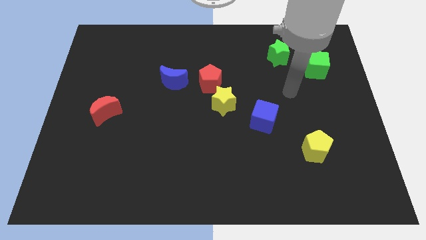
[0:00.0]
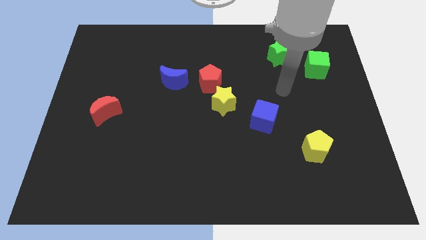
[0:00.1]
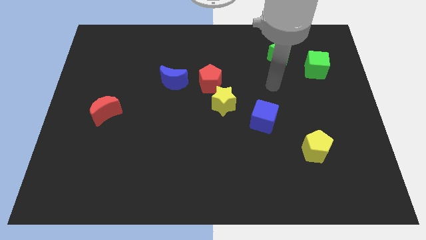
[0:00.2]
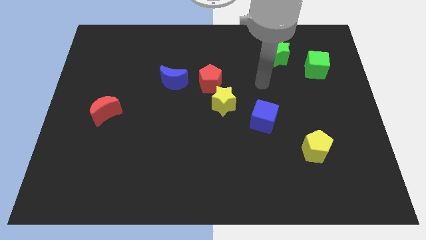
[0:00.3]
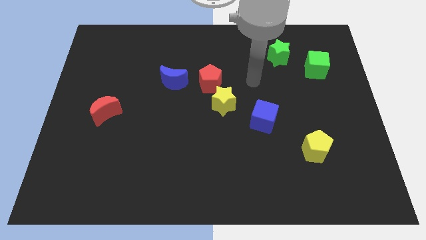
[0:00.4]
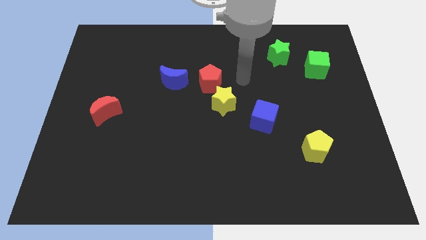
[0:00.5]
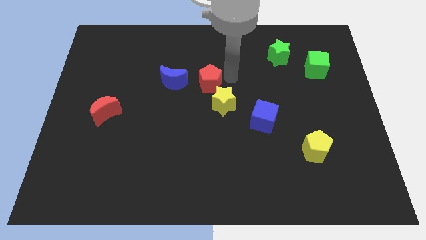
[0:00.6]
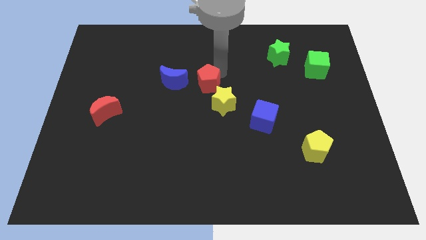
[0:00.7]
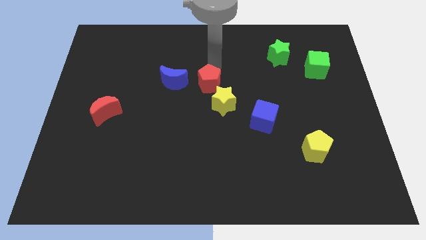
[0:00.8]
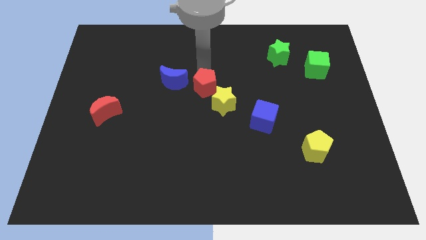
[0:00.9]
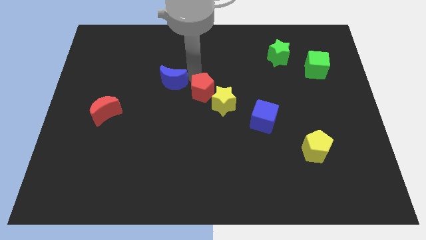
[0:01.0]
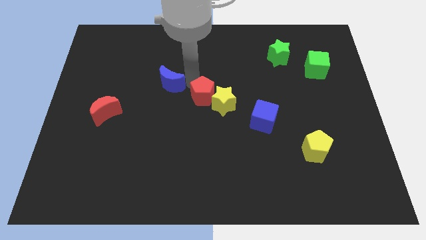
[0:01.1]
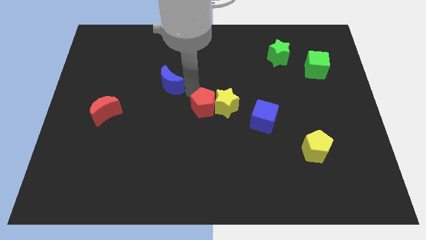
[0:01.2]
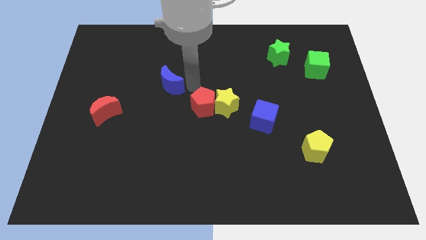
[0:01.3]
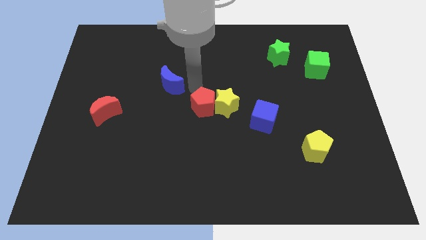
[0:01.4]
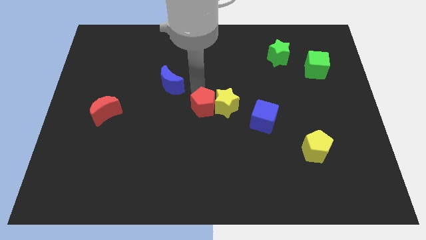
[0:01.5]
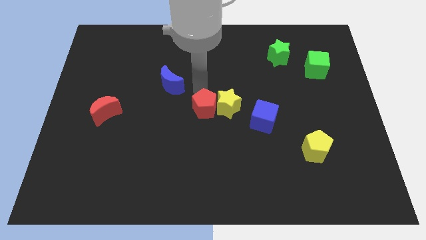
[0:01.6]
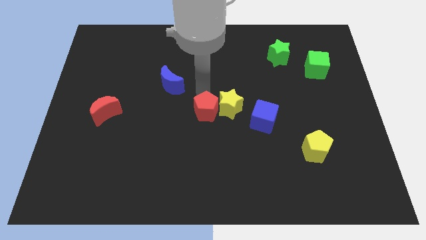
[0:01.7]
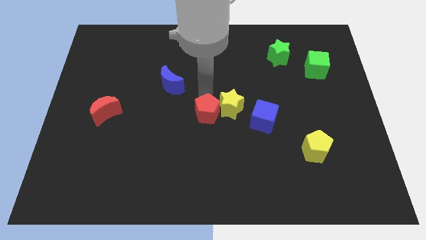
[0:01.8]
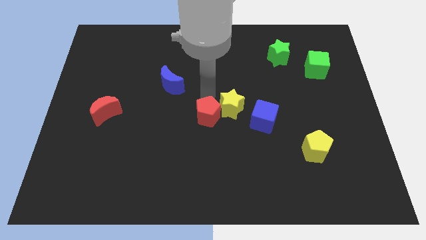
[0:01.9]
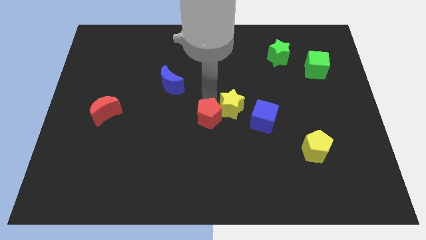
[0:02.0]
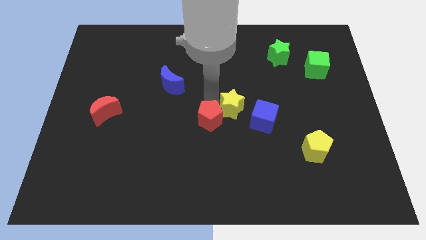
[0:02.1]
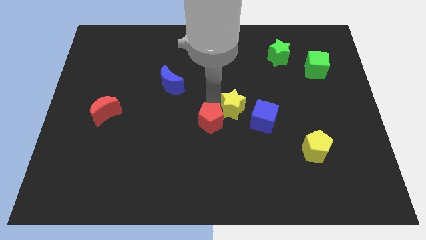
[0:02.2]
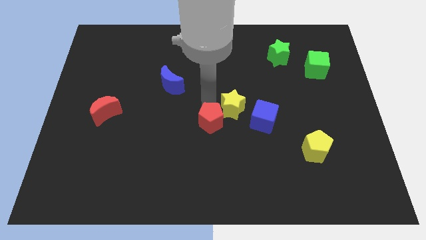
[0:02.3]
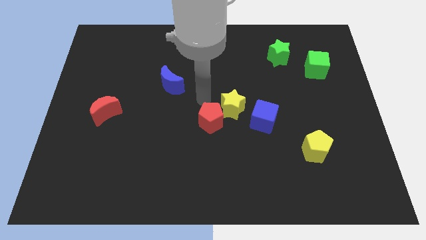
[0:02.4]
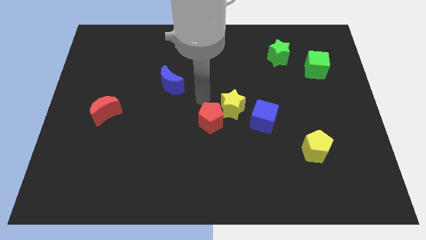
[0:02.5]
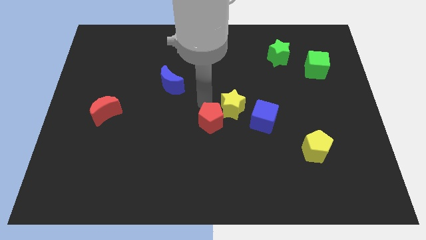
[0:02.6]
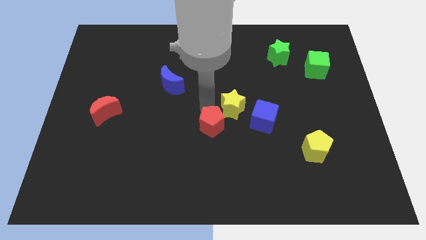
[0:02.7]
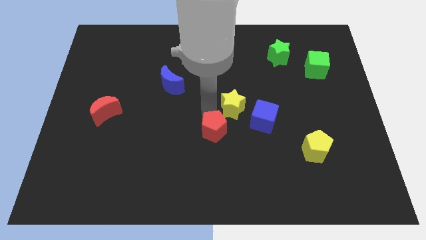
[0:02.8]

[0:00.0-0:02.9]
move the red pentagon away from the yellow star and blue moon

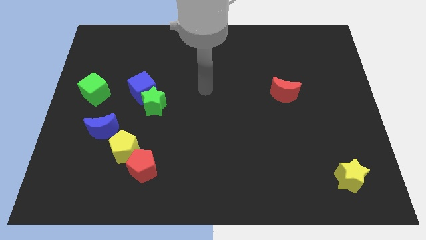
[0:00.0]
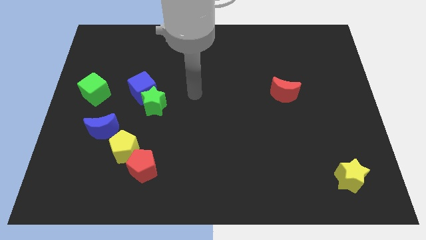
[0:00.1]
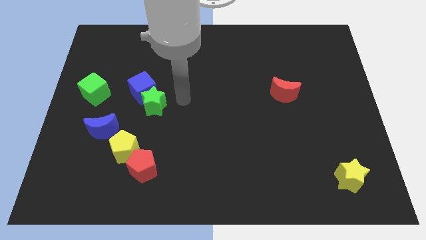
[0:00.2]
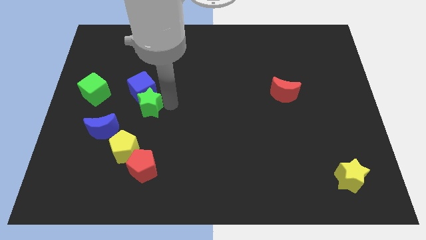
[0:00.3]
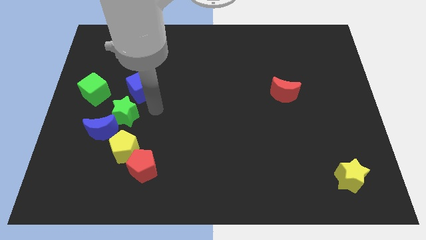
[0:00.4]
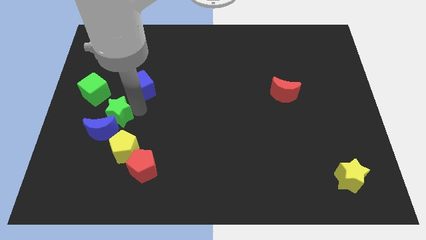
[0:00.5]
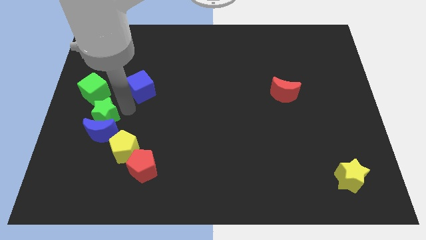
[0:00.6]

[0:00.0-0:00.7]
pull the blue cube apart from the green star

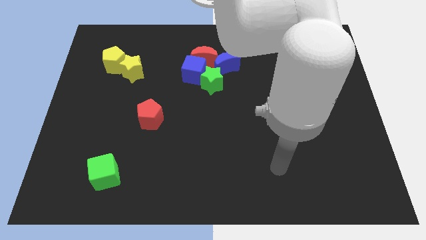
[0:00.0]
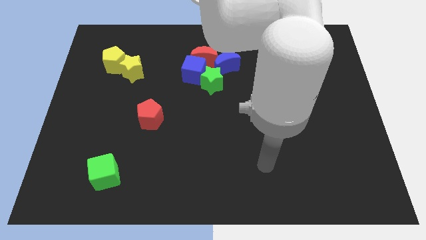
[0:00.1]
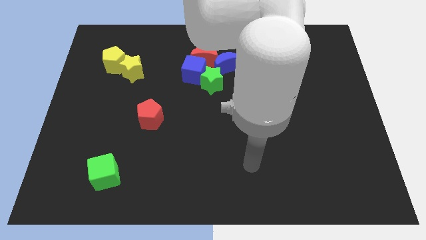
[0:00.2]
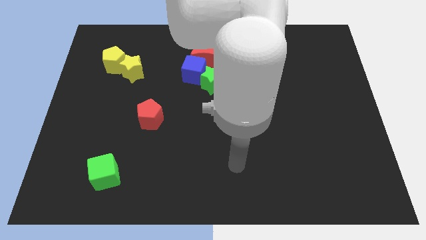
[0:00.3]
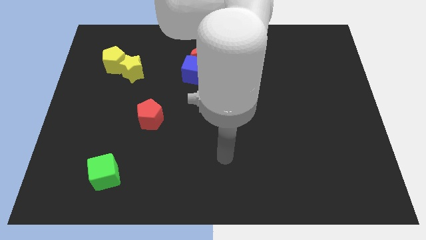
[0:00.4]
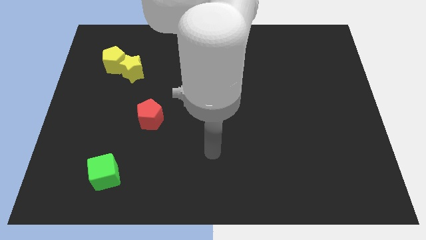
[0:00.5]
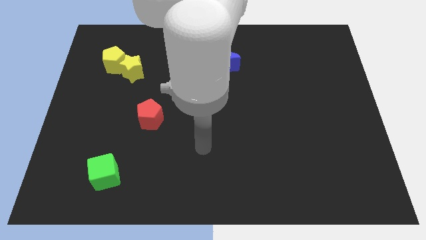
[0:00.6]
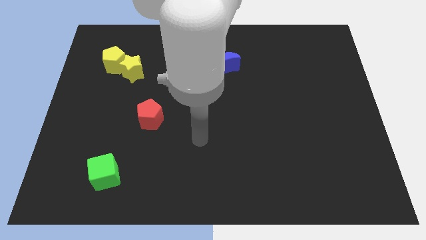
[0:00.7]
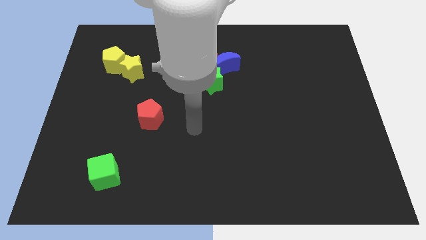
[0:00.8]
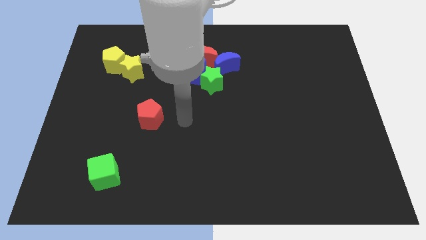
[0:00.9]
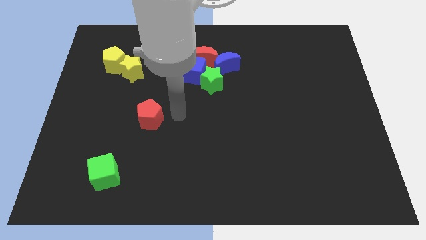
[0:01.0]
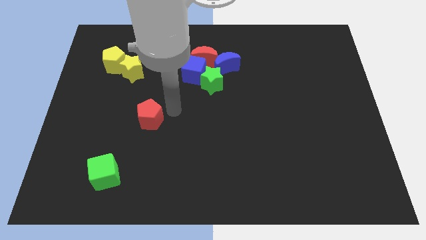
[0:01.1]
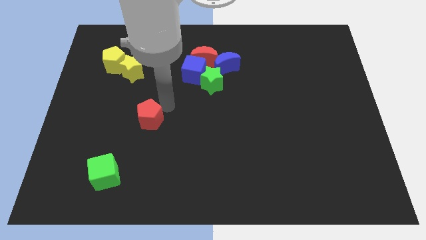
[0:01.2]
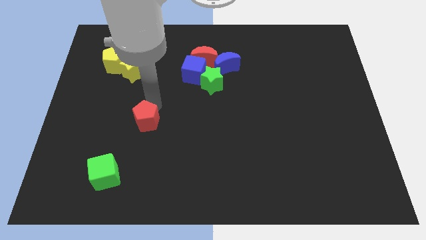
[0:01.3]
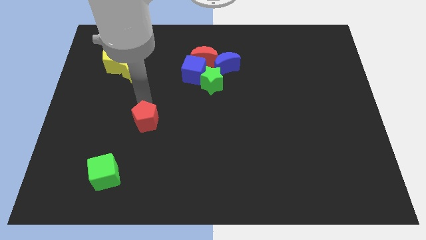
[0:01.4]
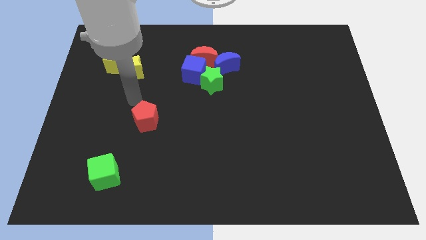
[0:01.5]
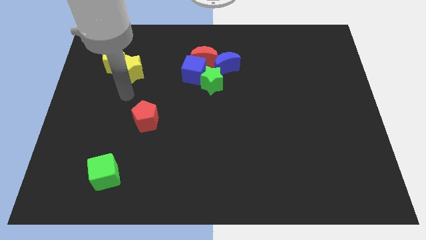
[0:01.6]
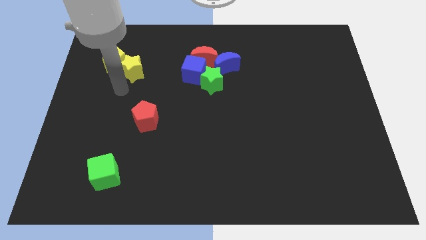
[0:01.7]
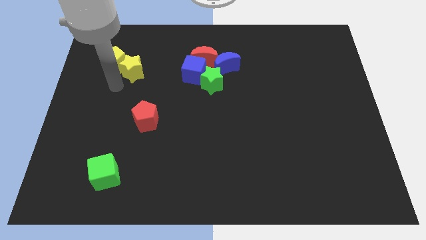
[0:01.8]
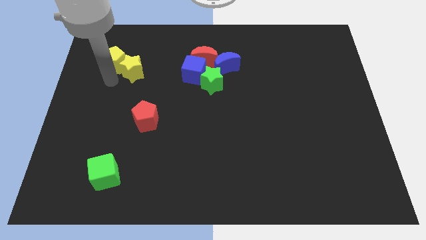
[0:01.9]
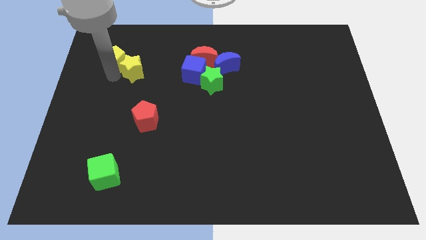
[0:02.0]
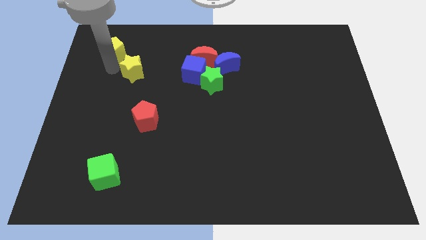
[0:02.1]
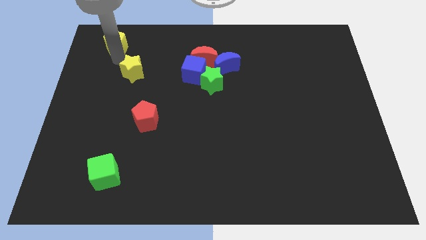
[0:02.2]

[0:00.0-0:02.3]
pull the yellow star apart from the yellow pentagon

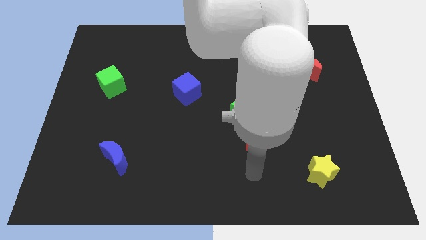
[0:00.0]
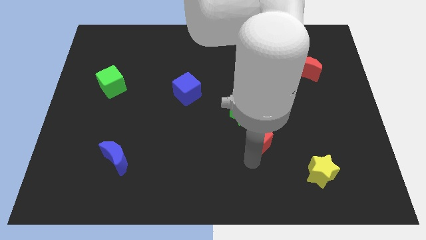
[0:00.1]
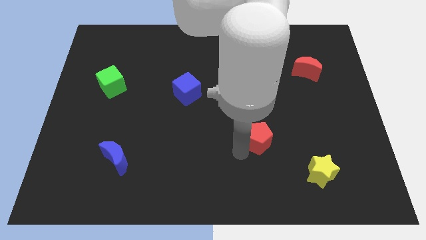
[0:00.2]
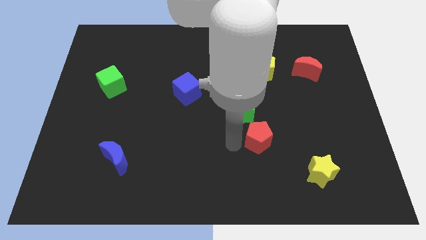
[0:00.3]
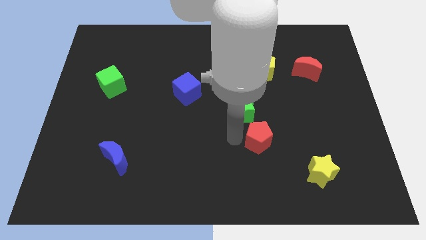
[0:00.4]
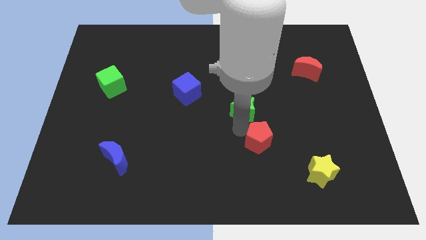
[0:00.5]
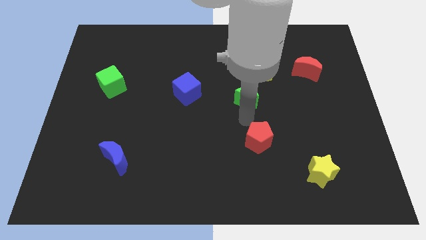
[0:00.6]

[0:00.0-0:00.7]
separate the red pentagon from the green star

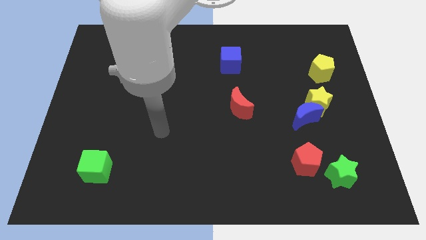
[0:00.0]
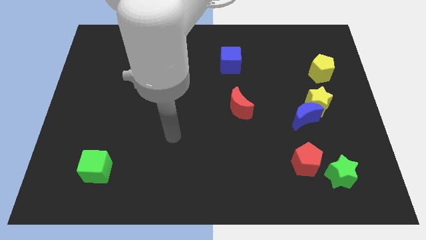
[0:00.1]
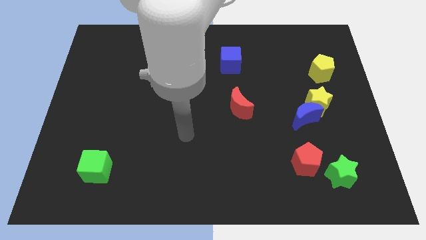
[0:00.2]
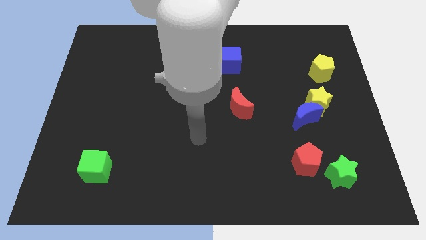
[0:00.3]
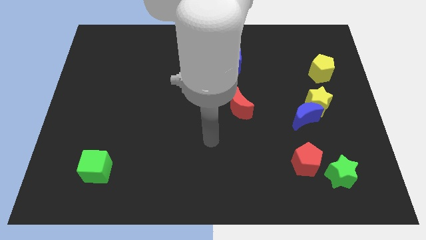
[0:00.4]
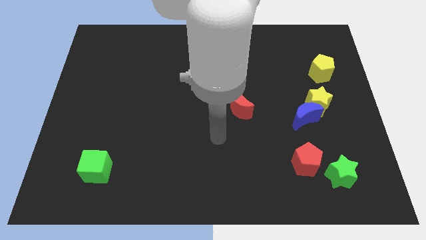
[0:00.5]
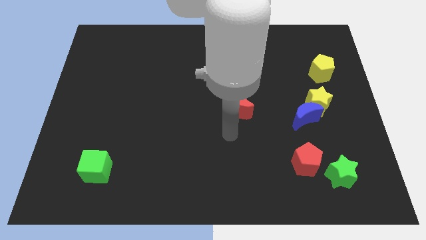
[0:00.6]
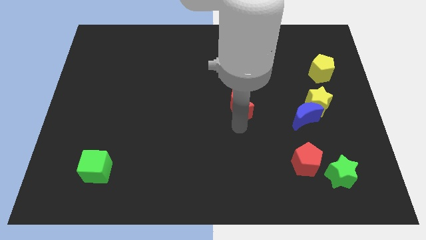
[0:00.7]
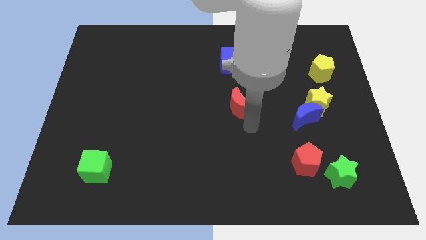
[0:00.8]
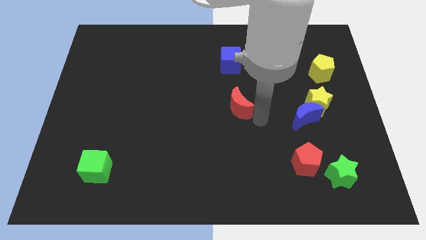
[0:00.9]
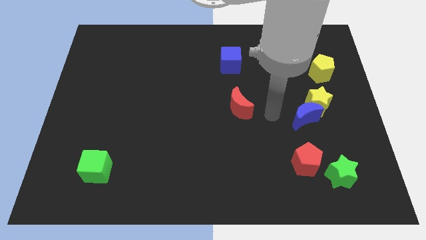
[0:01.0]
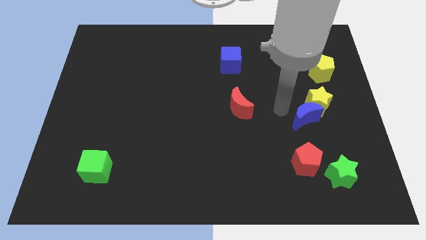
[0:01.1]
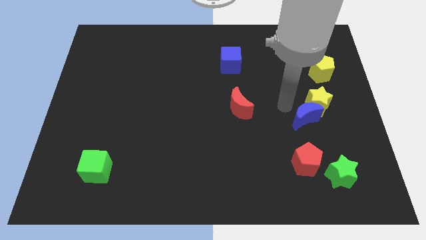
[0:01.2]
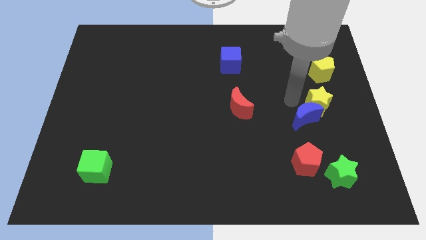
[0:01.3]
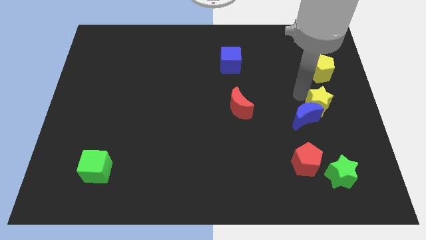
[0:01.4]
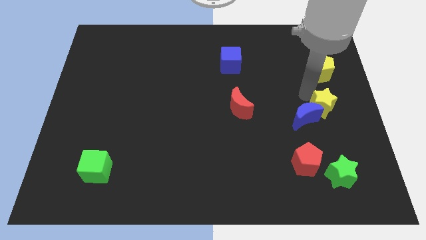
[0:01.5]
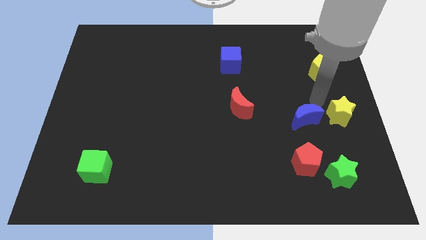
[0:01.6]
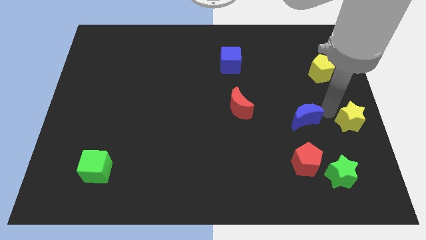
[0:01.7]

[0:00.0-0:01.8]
pull the blue moon apart from the yellow star

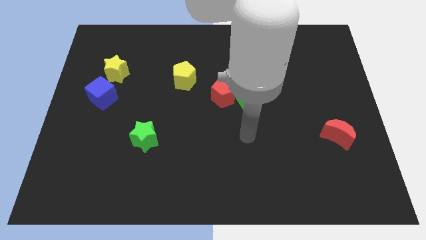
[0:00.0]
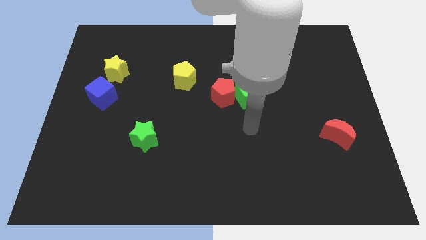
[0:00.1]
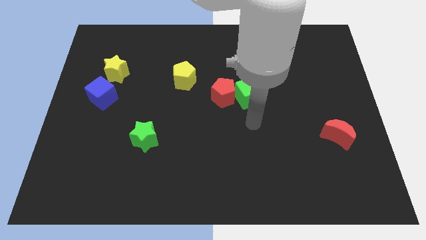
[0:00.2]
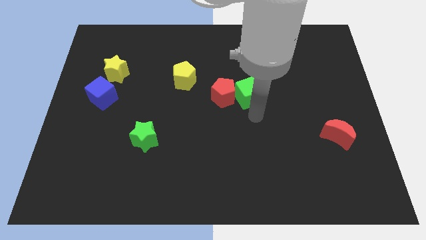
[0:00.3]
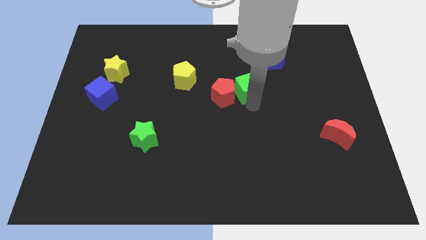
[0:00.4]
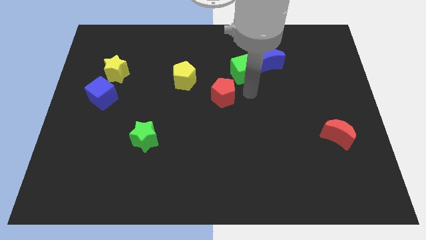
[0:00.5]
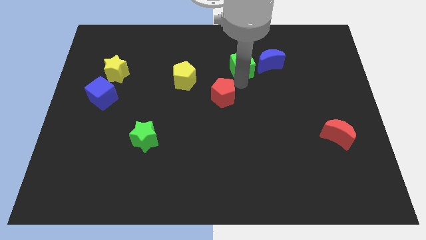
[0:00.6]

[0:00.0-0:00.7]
pull the red pentagon apart from the green cube

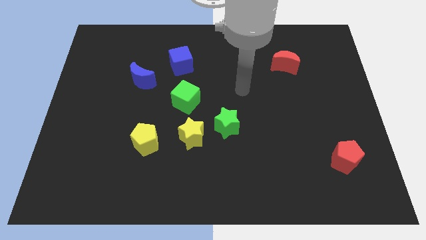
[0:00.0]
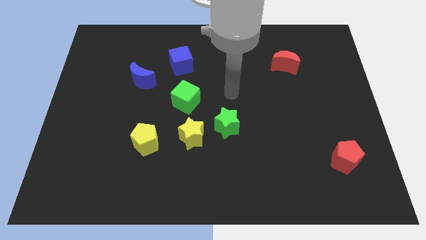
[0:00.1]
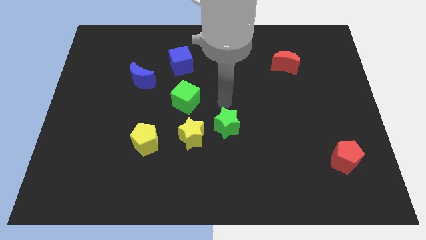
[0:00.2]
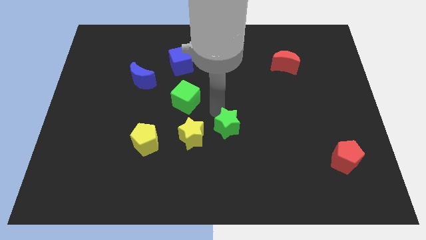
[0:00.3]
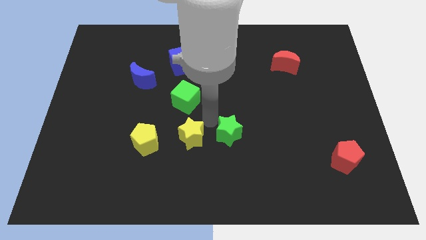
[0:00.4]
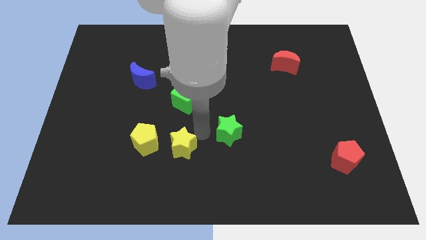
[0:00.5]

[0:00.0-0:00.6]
separate the green star from the yellow star
